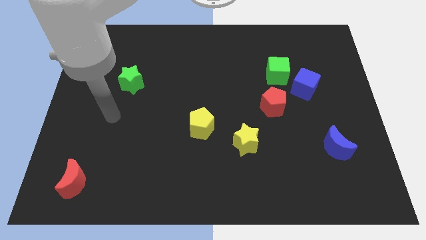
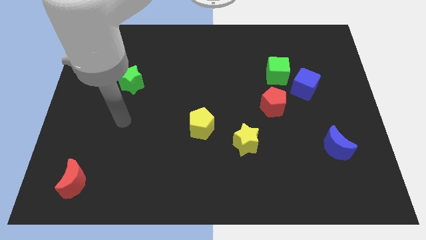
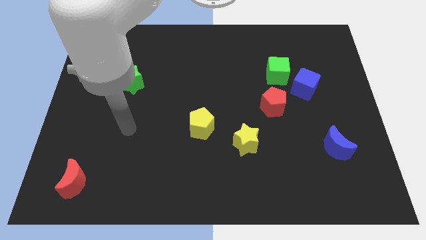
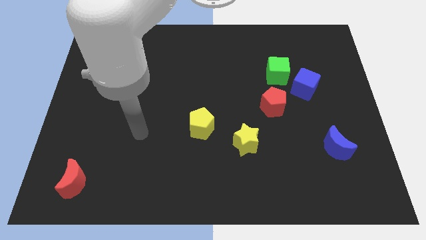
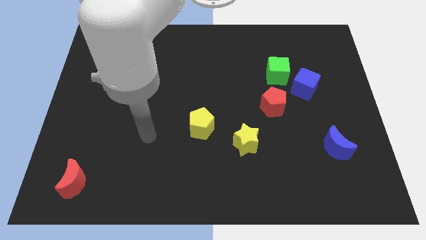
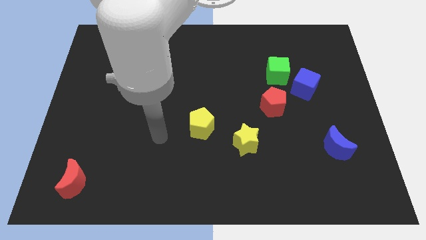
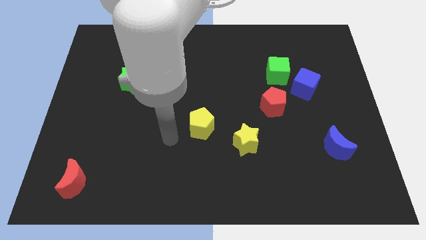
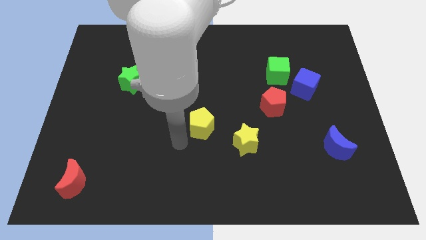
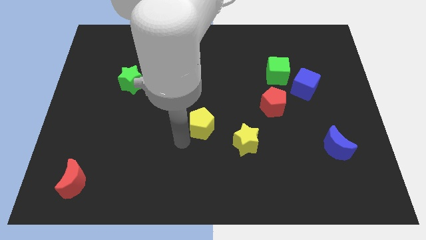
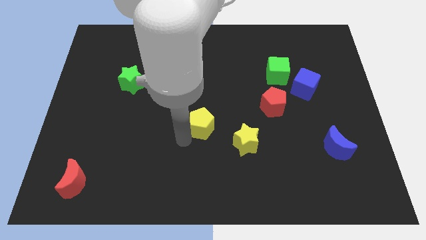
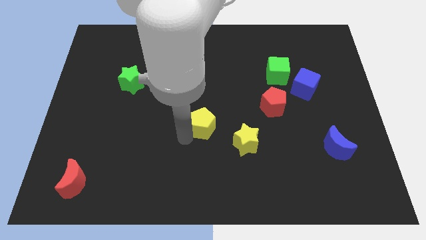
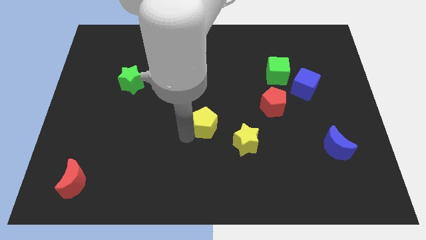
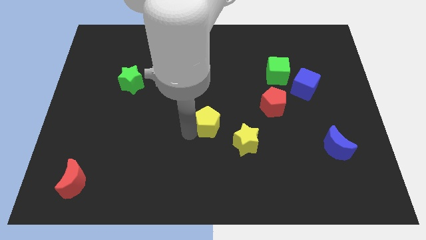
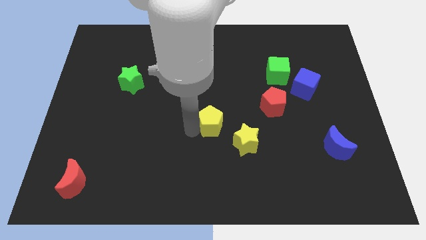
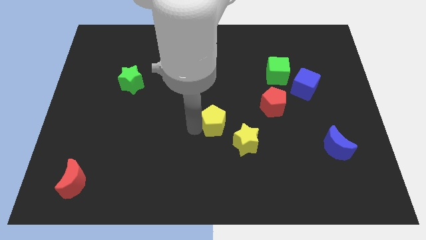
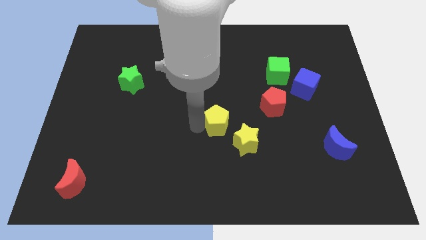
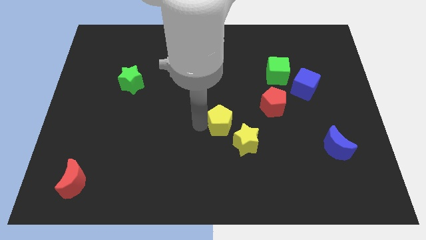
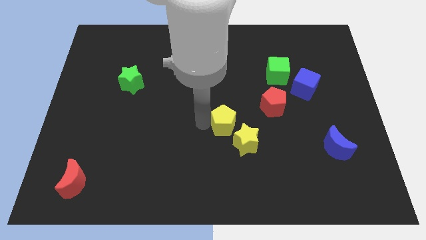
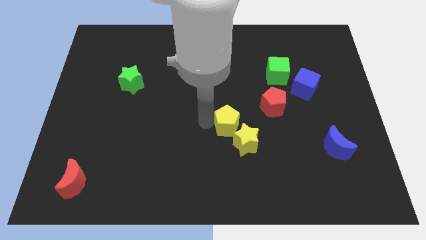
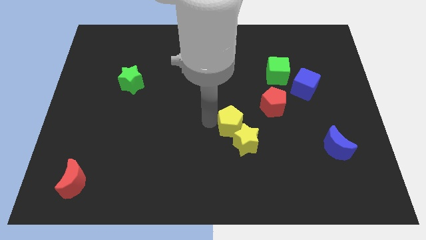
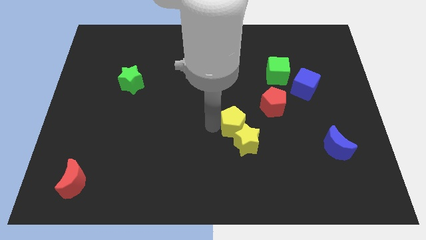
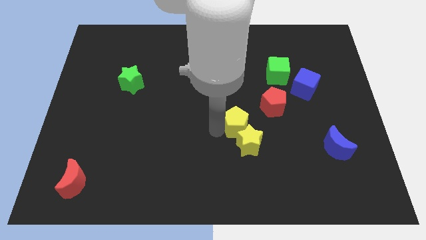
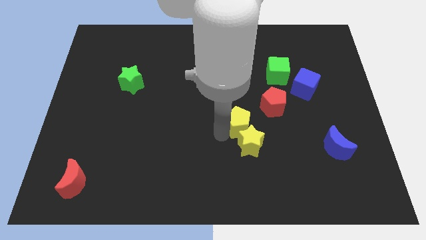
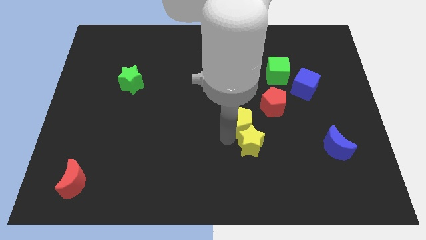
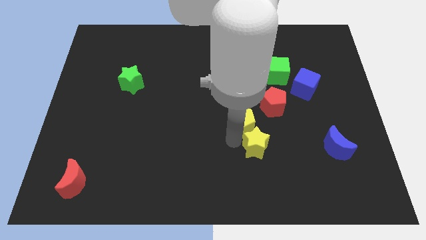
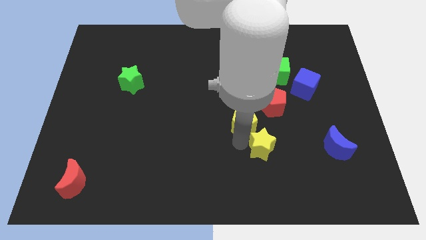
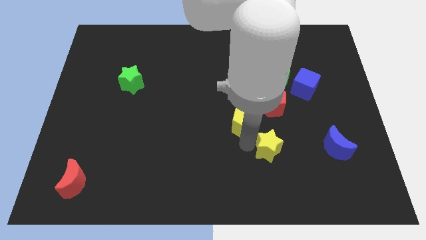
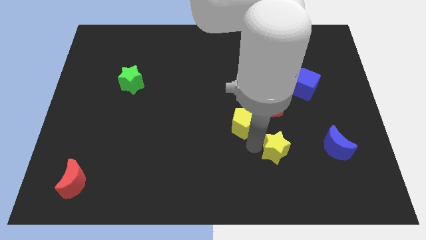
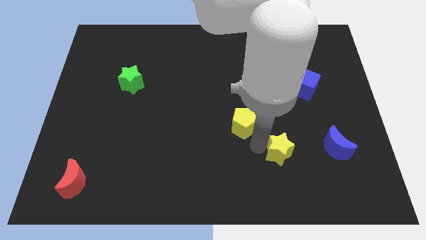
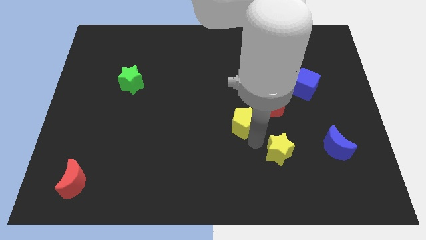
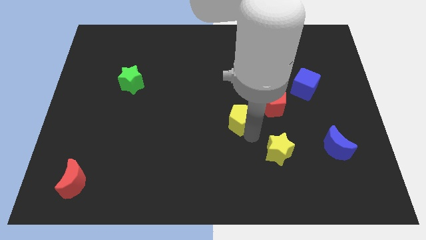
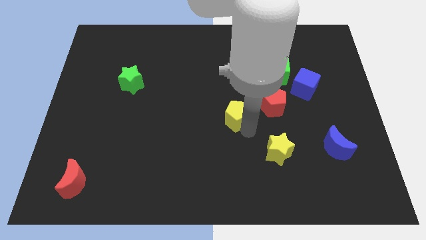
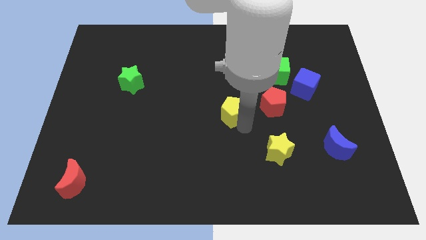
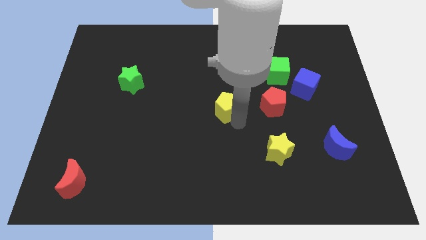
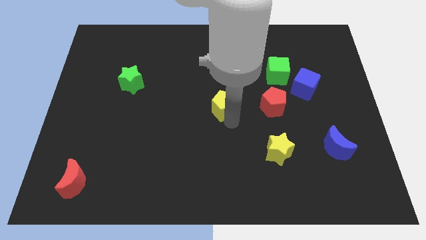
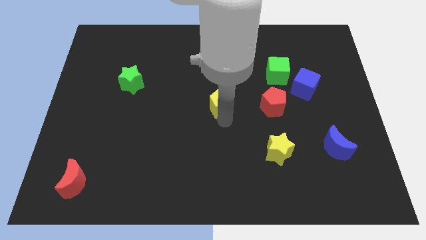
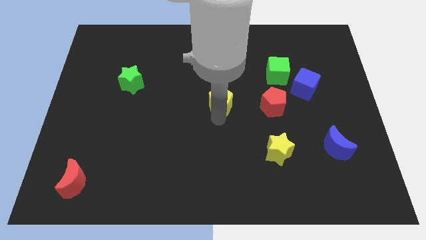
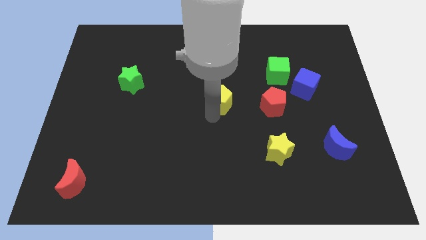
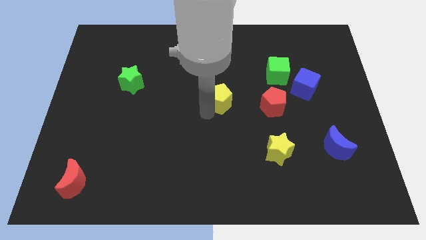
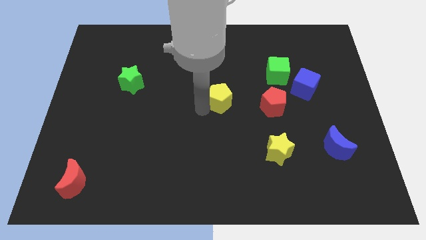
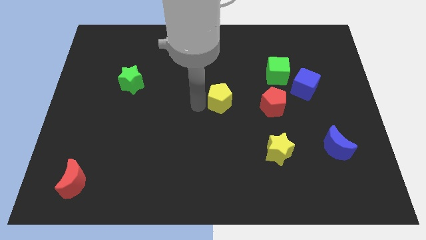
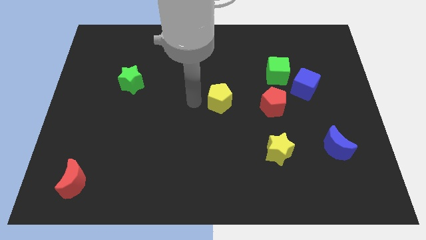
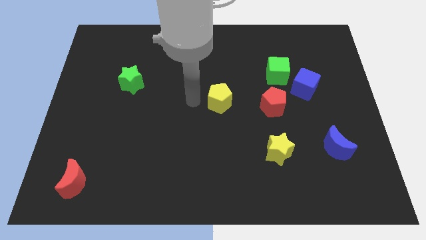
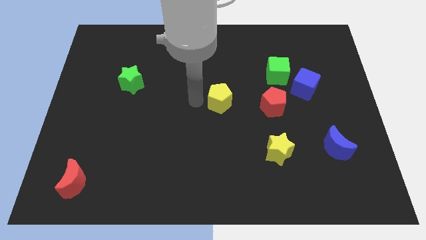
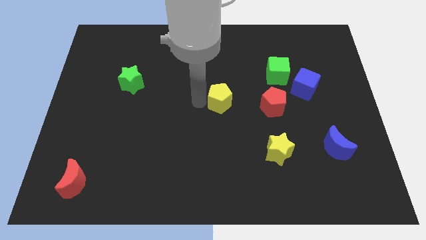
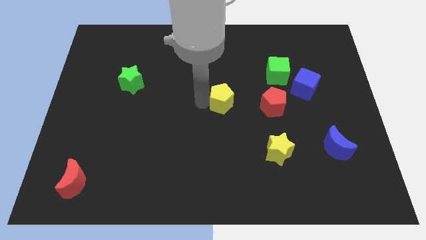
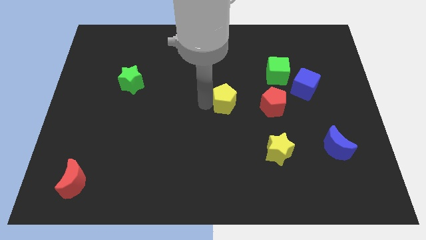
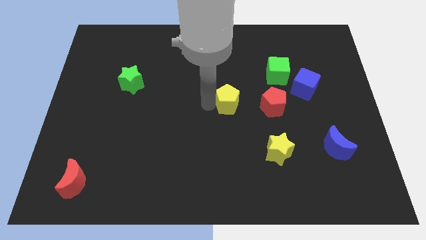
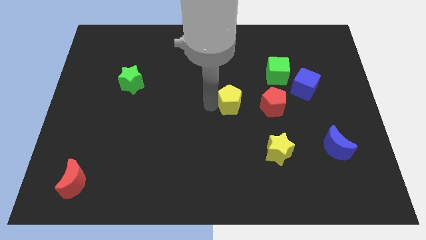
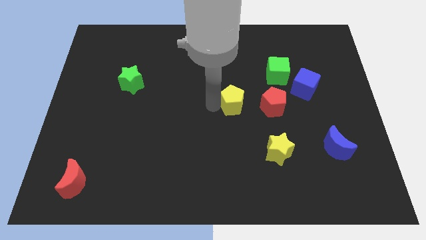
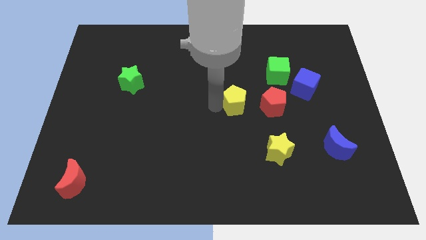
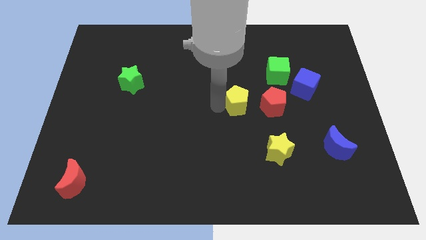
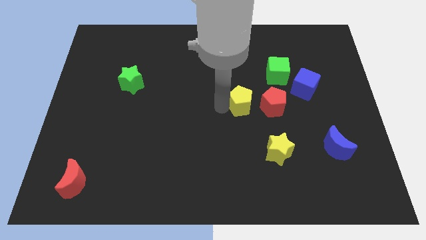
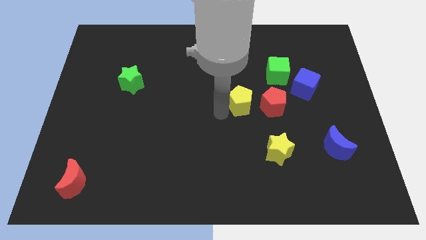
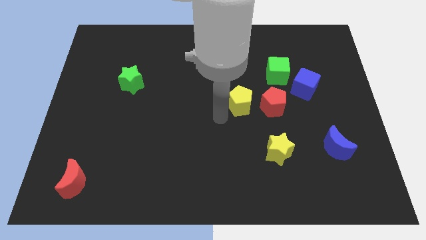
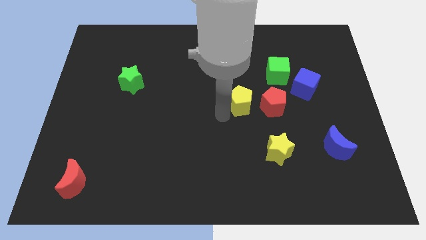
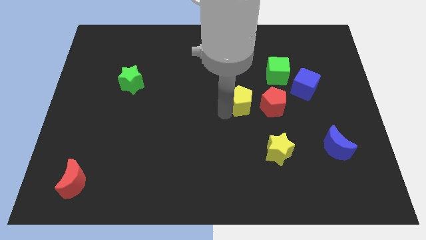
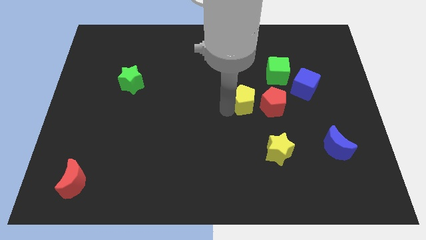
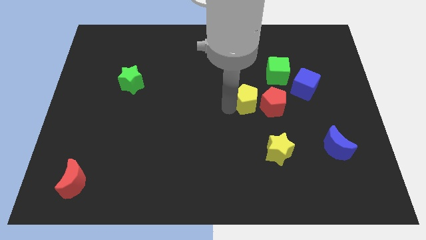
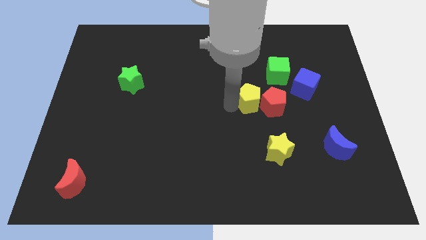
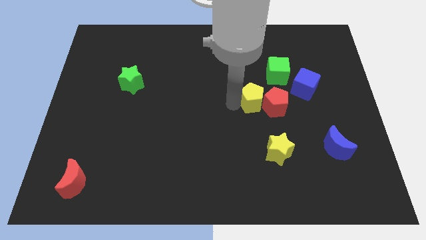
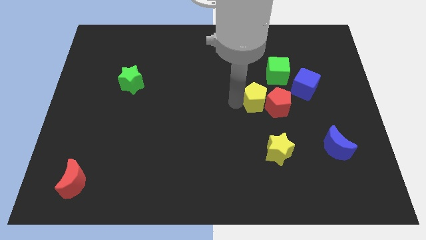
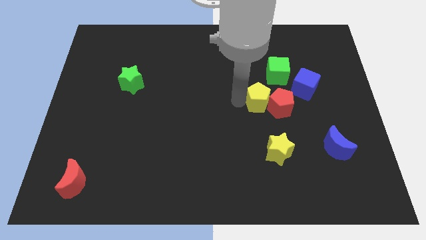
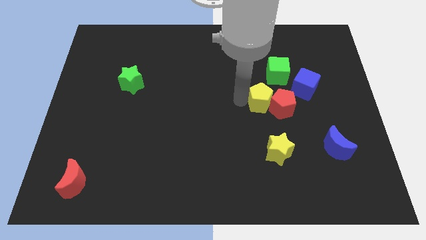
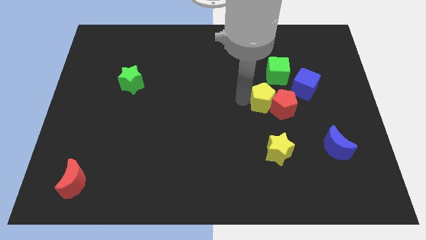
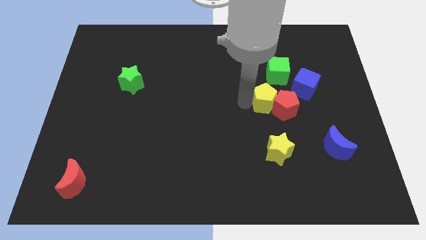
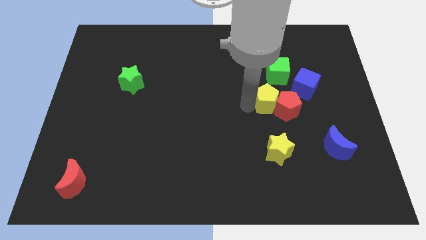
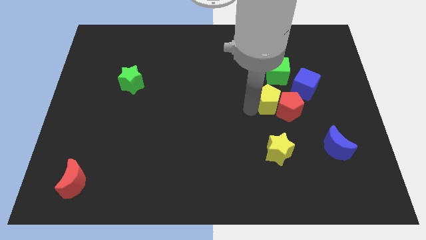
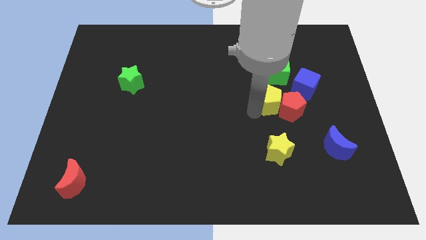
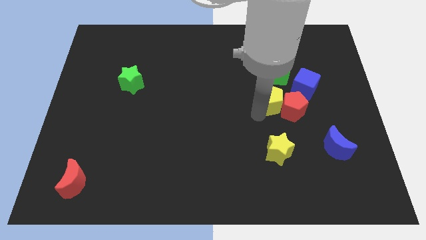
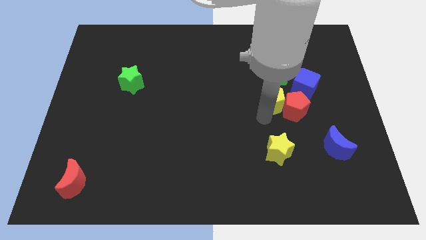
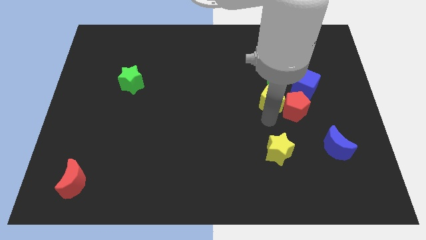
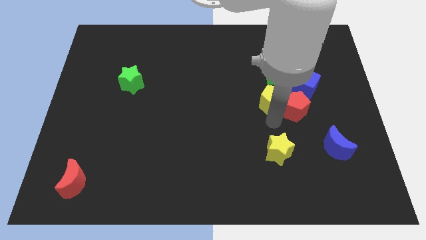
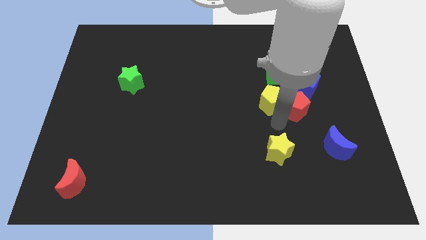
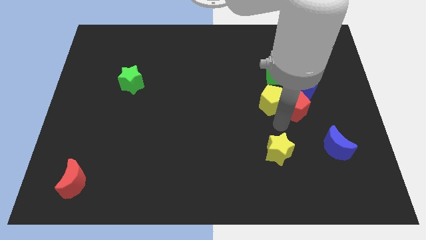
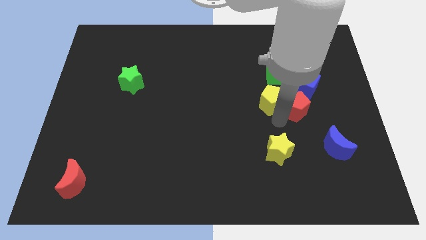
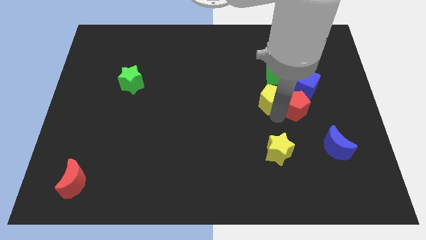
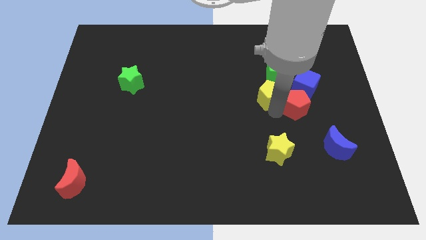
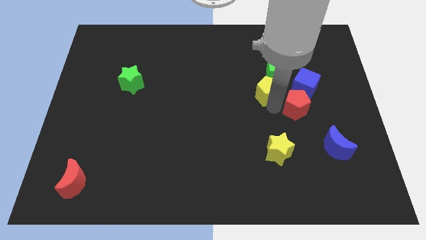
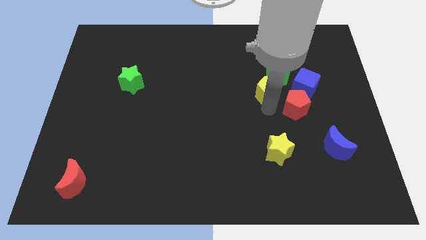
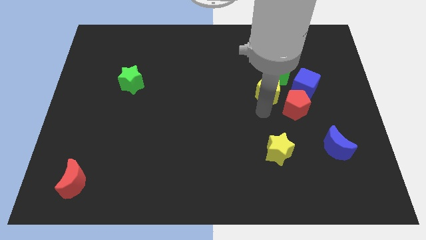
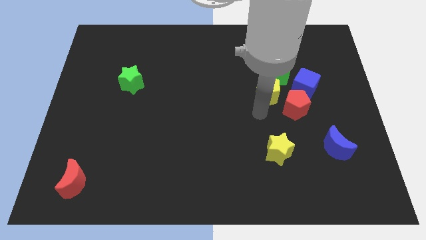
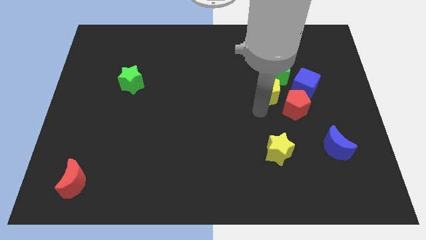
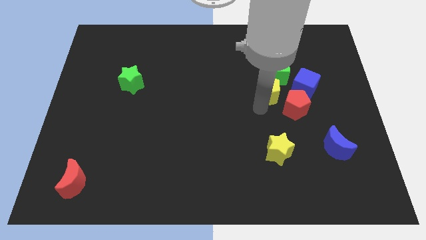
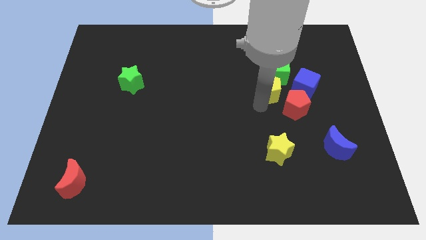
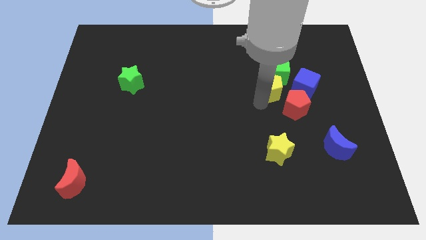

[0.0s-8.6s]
push the yellow pentagon towards the green cube
